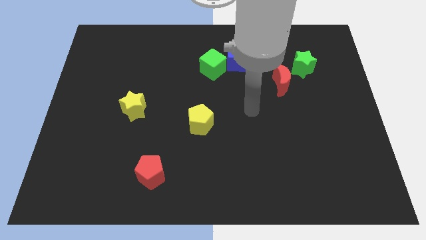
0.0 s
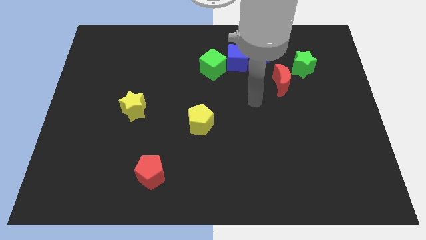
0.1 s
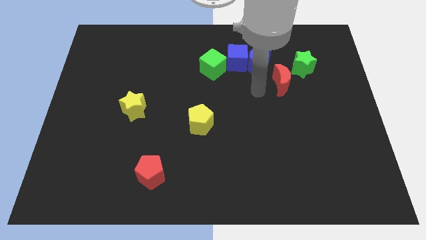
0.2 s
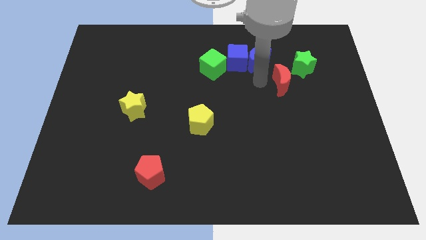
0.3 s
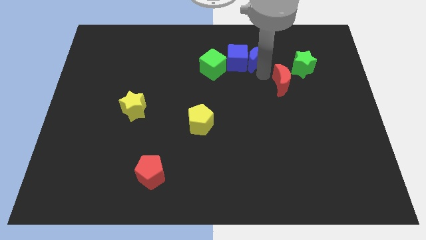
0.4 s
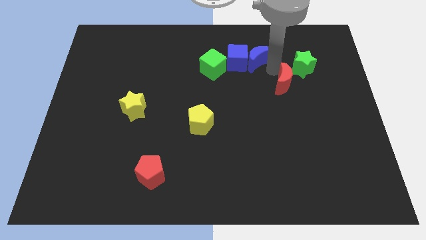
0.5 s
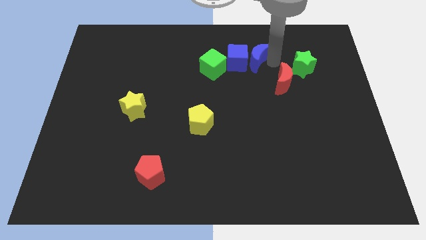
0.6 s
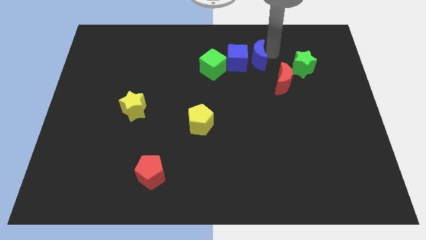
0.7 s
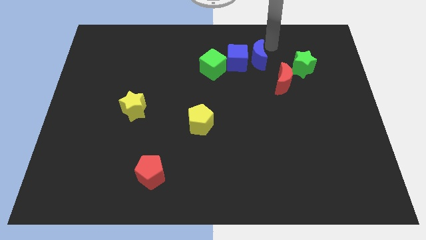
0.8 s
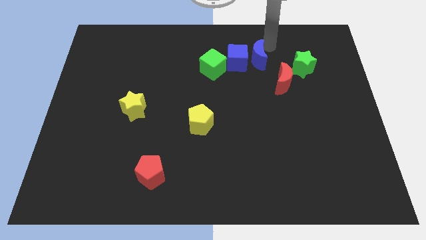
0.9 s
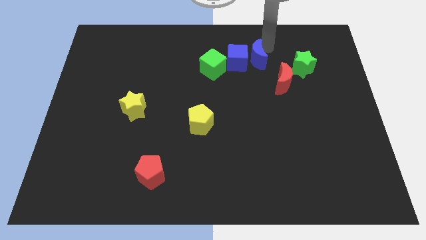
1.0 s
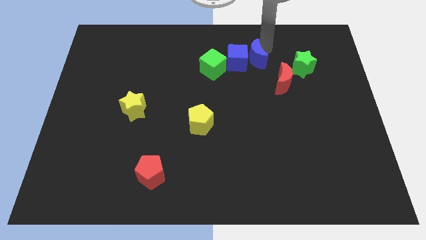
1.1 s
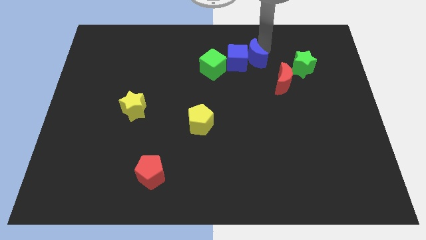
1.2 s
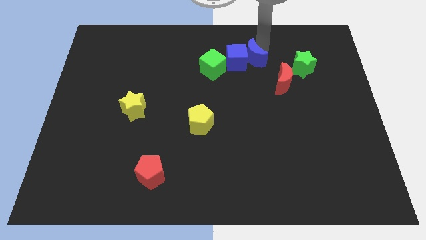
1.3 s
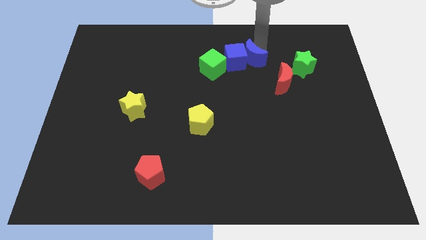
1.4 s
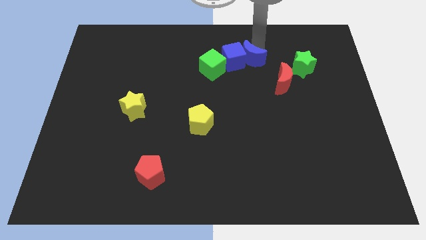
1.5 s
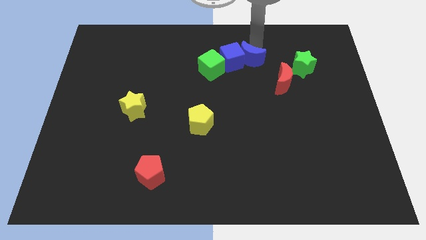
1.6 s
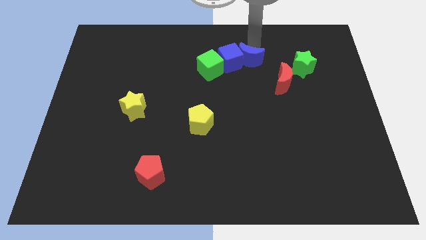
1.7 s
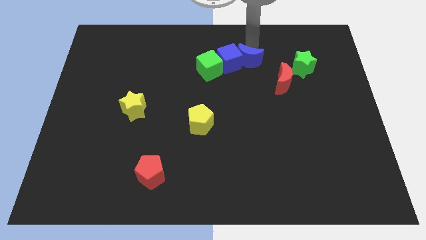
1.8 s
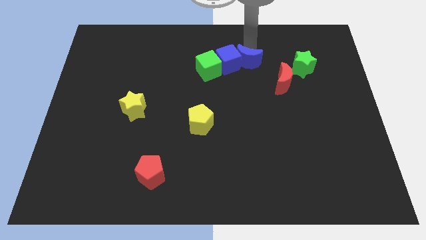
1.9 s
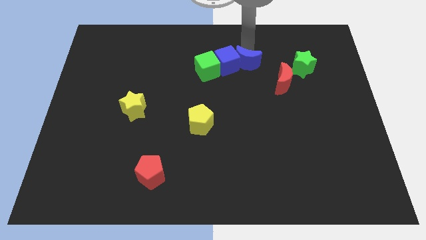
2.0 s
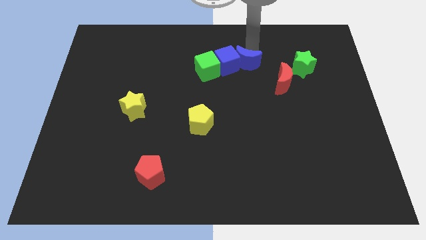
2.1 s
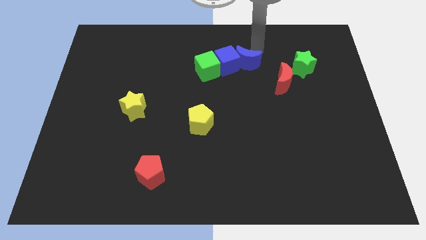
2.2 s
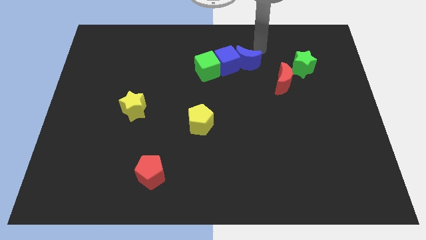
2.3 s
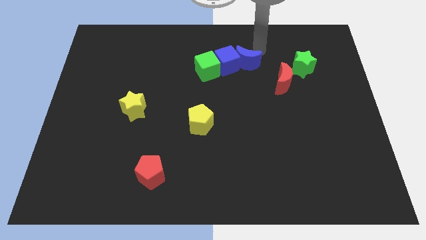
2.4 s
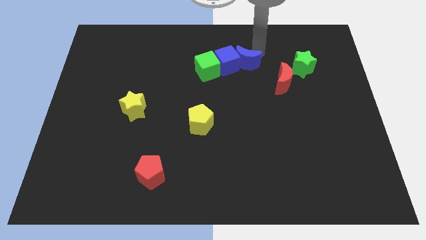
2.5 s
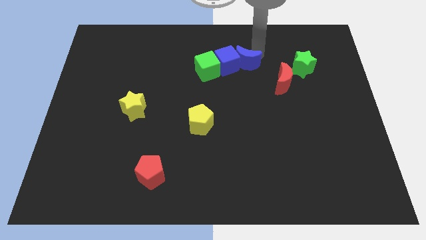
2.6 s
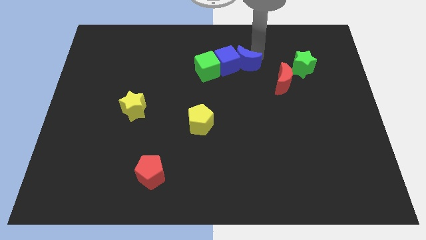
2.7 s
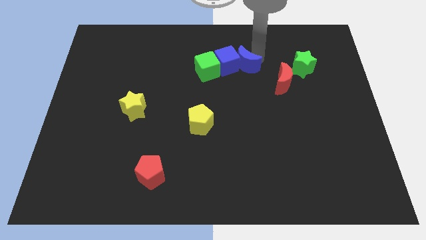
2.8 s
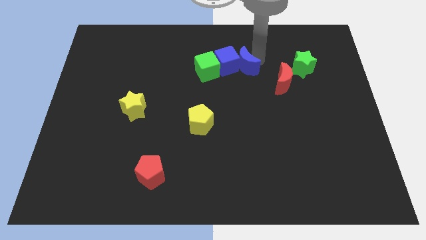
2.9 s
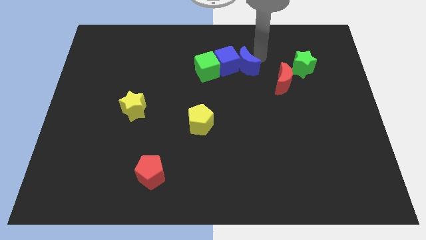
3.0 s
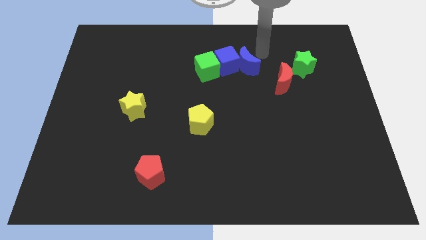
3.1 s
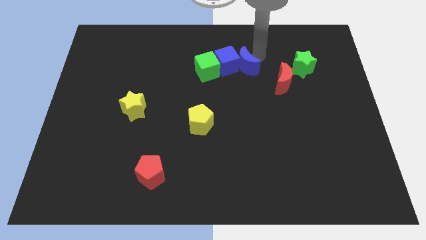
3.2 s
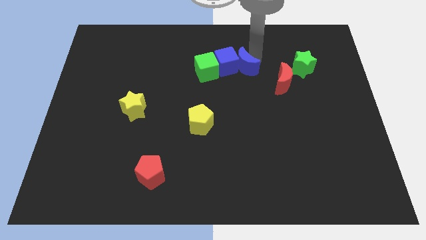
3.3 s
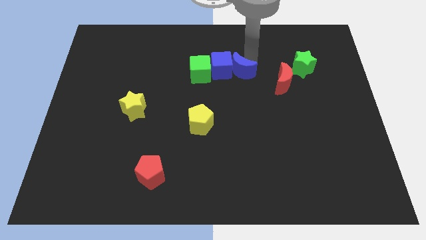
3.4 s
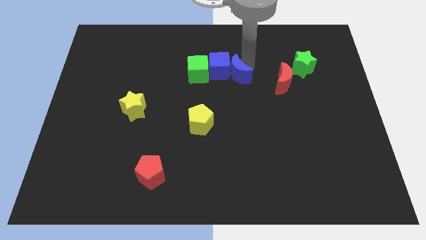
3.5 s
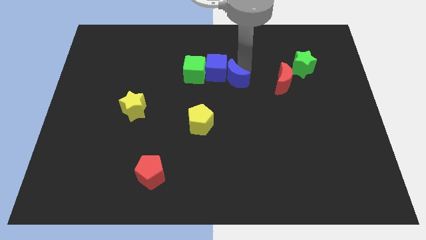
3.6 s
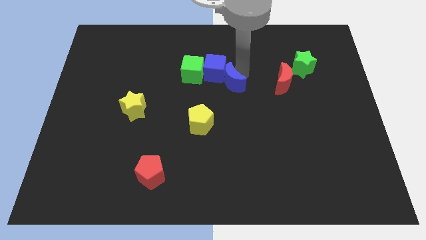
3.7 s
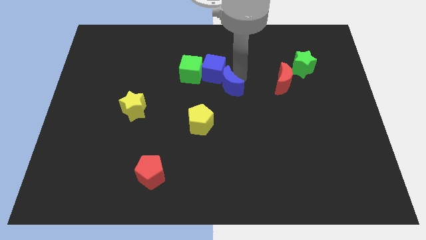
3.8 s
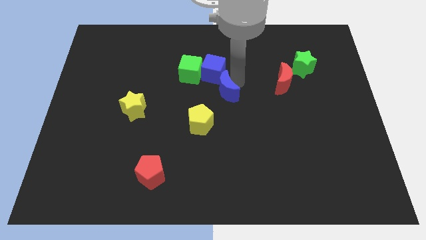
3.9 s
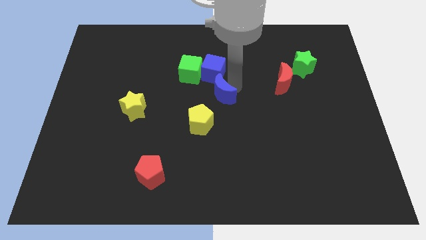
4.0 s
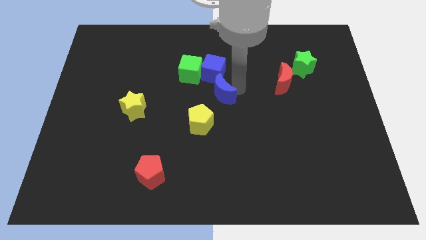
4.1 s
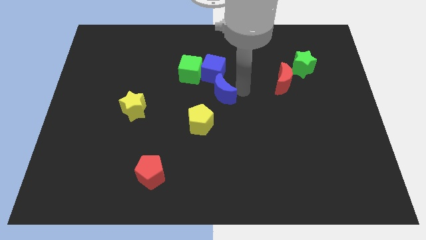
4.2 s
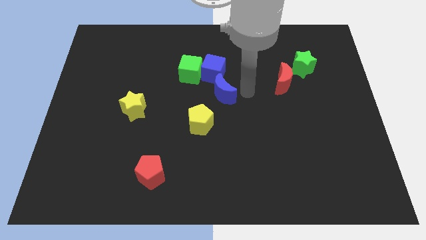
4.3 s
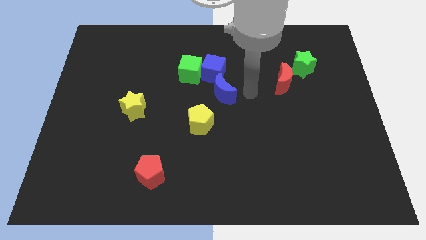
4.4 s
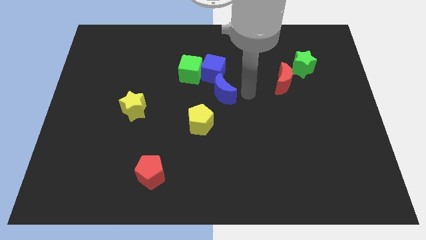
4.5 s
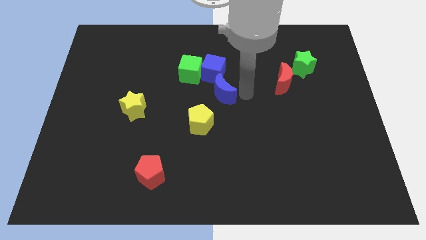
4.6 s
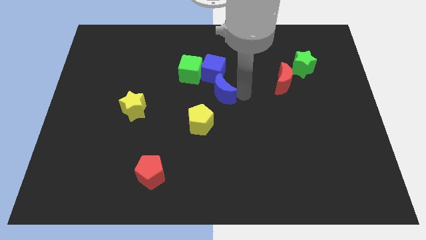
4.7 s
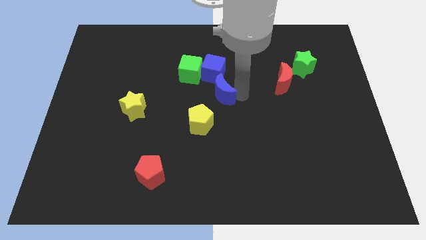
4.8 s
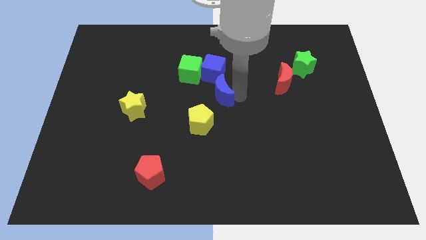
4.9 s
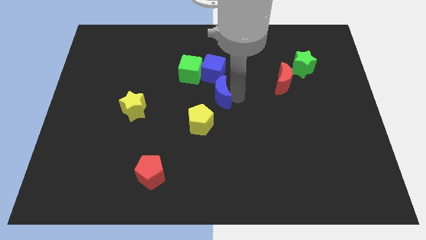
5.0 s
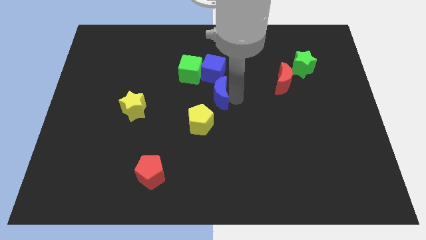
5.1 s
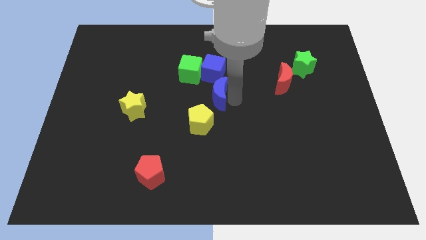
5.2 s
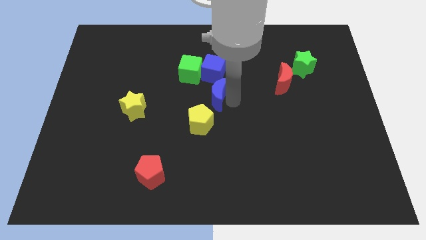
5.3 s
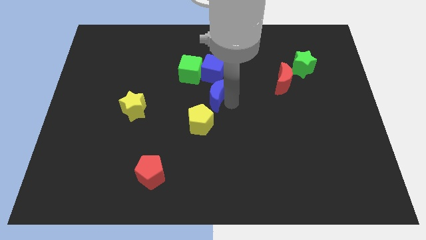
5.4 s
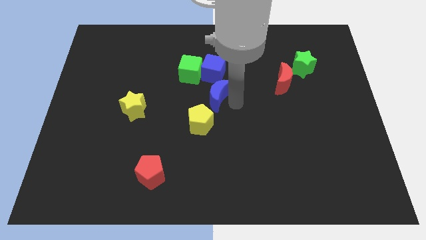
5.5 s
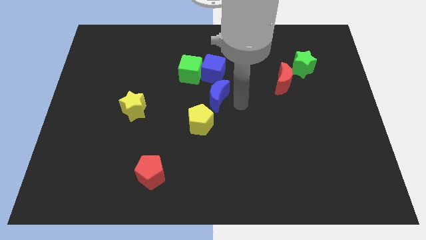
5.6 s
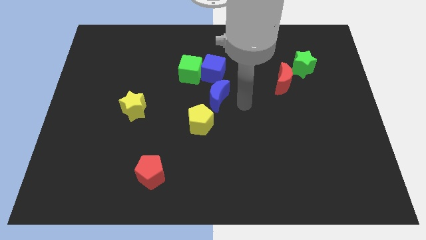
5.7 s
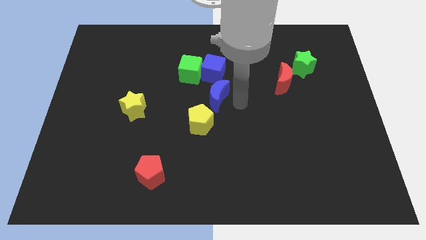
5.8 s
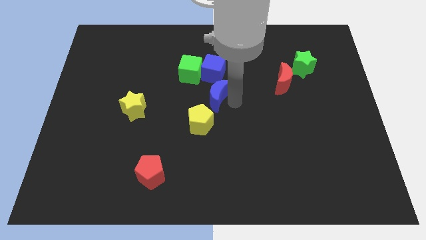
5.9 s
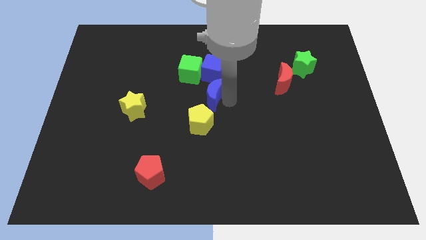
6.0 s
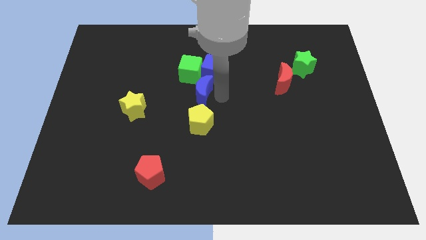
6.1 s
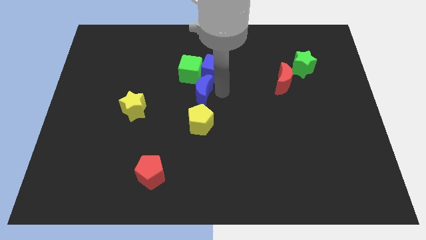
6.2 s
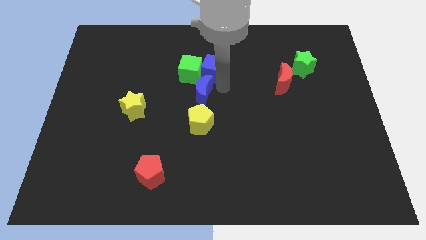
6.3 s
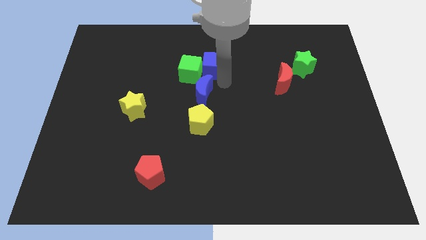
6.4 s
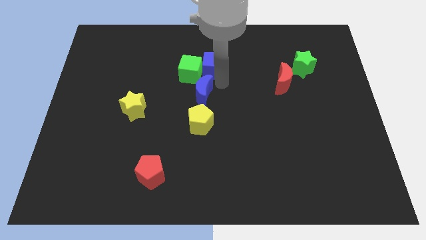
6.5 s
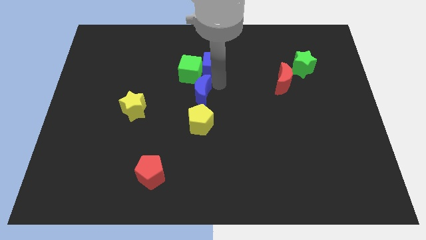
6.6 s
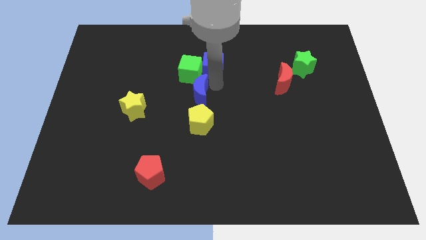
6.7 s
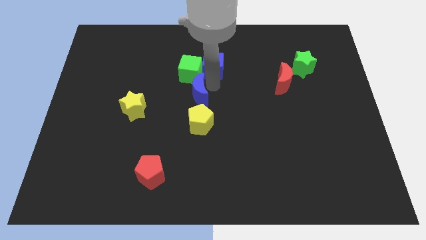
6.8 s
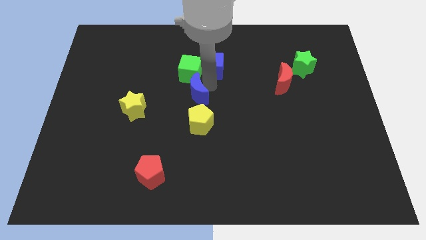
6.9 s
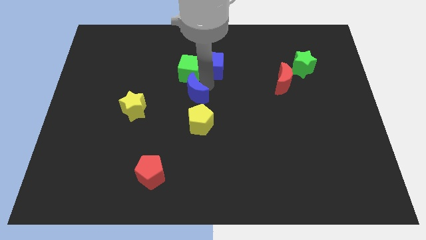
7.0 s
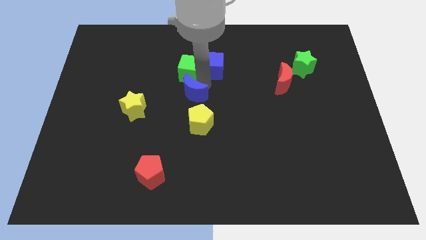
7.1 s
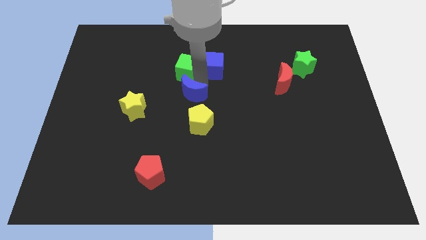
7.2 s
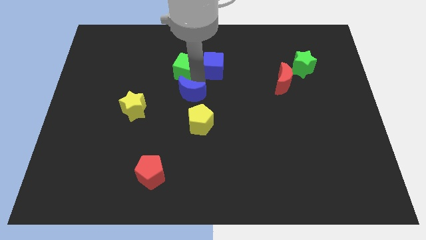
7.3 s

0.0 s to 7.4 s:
move the blue moon to the right of the yellow star
